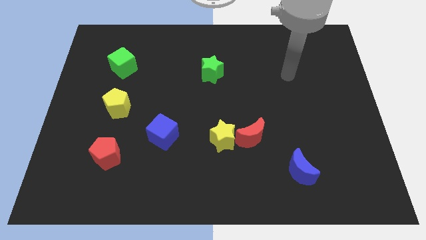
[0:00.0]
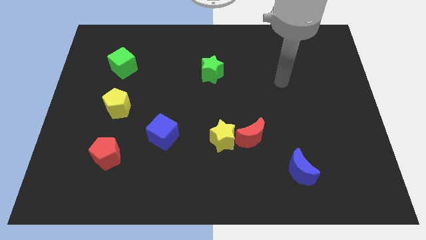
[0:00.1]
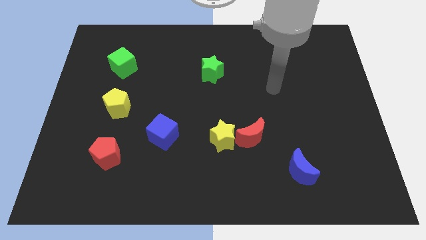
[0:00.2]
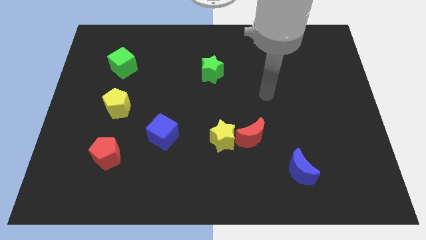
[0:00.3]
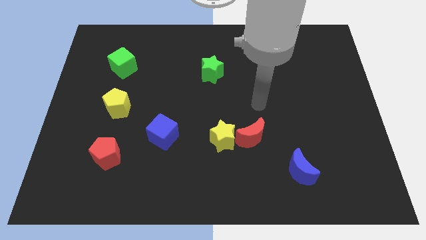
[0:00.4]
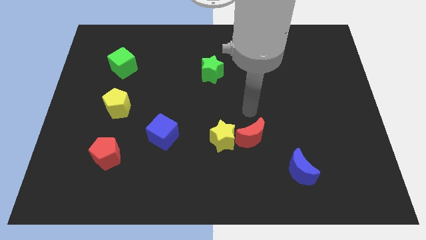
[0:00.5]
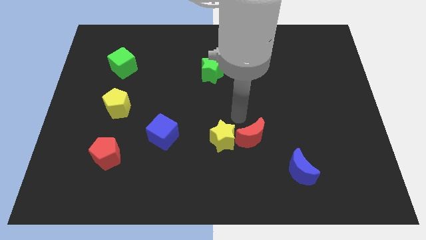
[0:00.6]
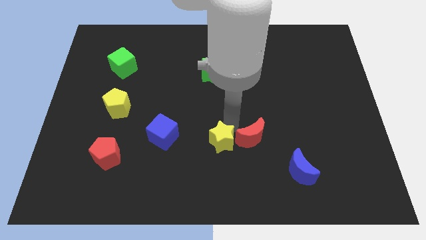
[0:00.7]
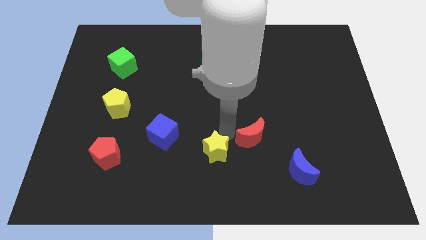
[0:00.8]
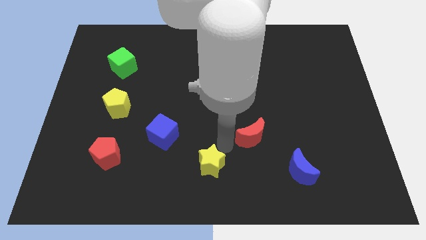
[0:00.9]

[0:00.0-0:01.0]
move the red moon away from the yellow star

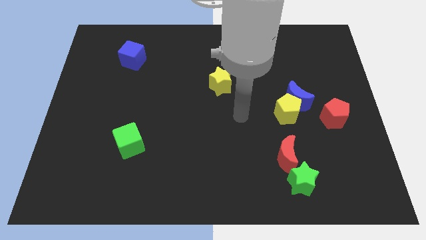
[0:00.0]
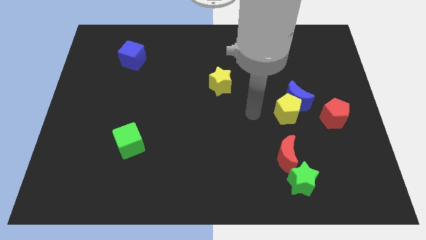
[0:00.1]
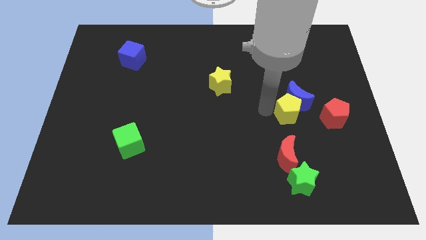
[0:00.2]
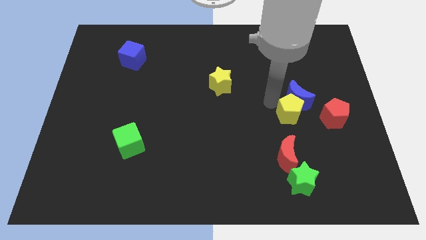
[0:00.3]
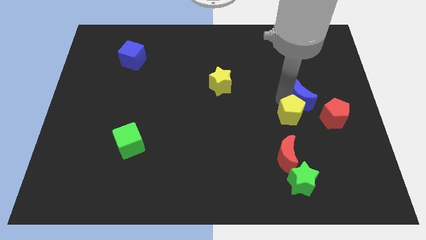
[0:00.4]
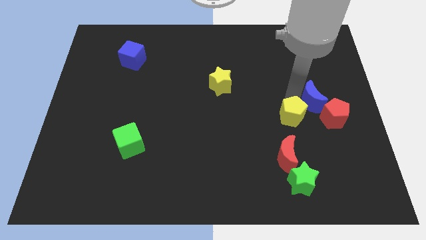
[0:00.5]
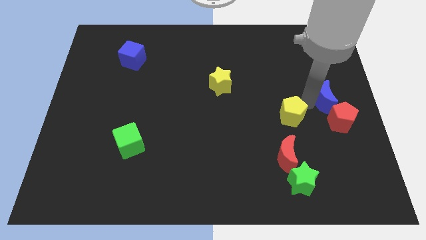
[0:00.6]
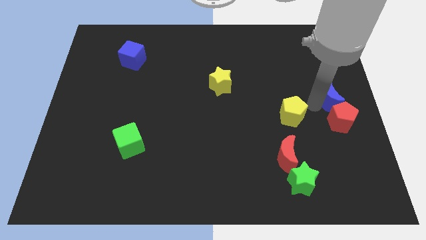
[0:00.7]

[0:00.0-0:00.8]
move the yellow pentagon away from the blue moon

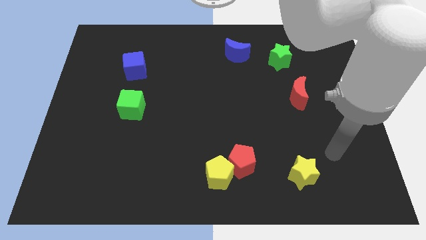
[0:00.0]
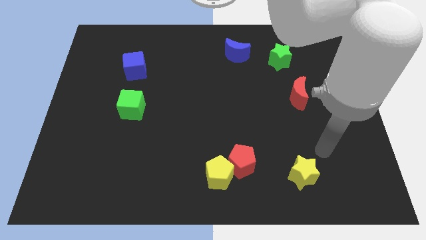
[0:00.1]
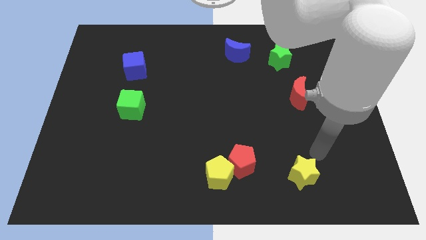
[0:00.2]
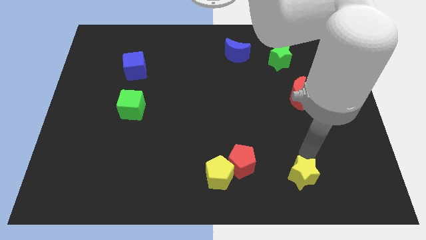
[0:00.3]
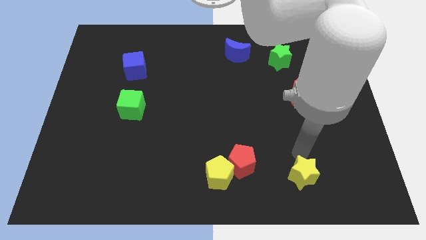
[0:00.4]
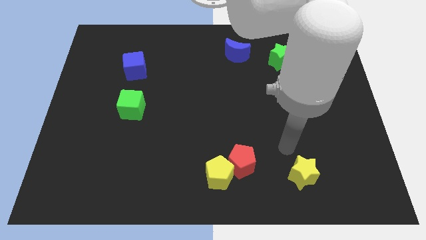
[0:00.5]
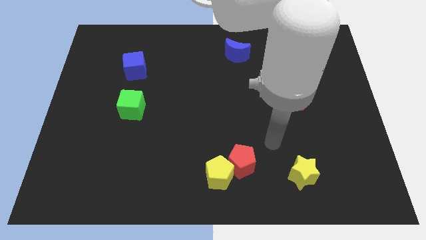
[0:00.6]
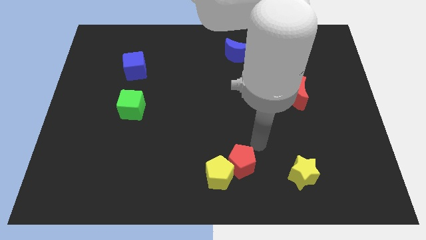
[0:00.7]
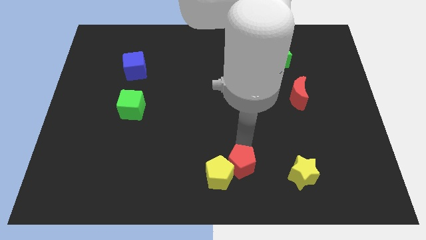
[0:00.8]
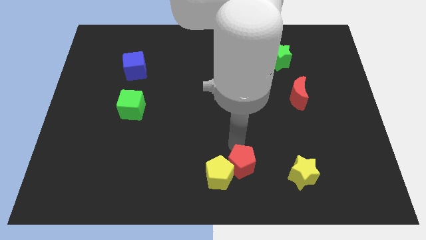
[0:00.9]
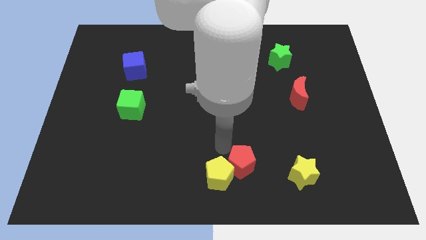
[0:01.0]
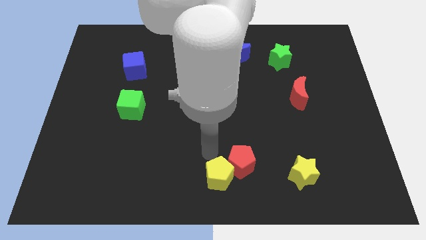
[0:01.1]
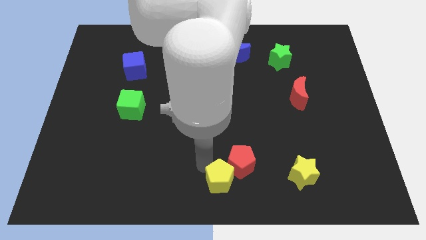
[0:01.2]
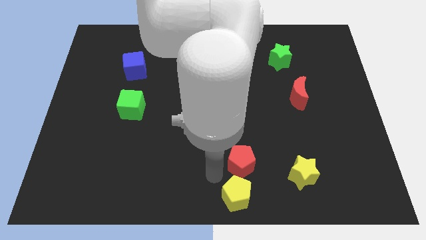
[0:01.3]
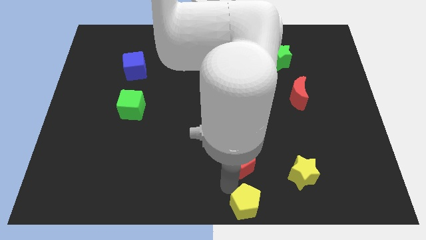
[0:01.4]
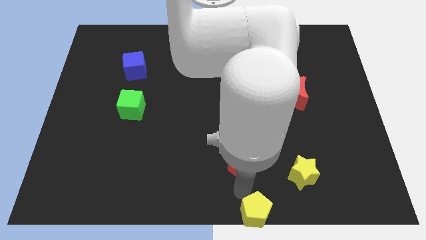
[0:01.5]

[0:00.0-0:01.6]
pull the red pentagon apart from the yellow pentagon

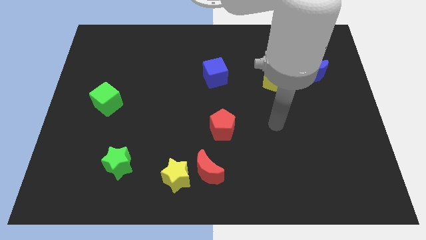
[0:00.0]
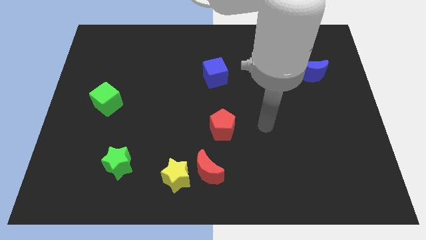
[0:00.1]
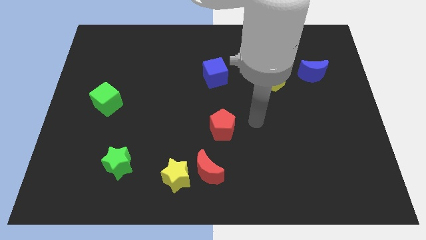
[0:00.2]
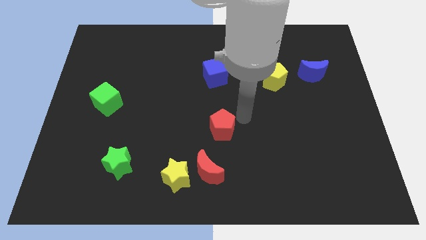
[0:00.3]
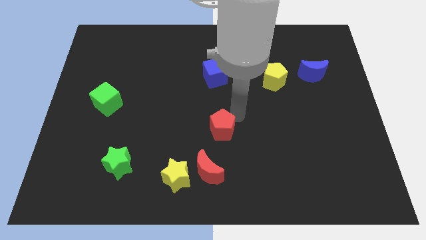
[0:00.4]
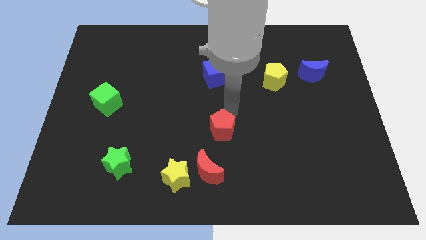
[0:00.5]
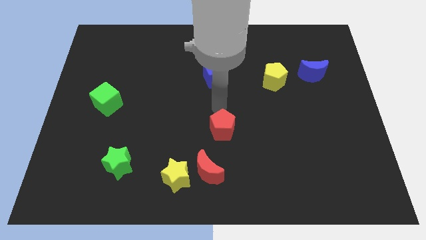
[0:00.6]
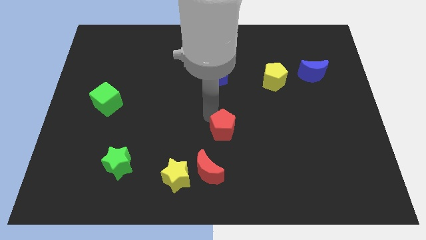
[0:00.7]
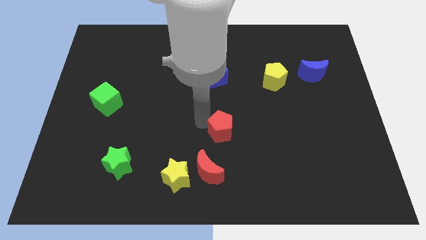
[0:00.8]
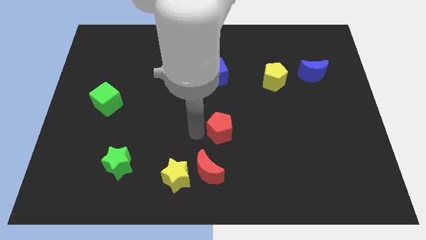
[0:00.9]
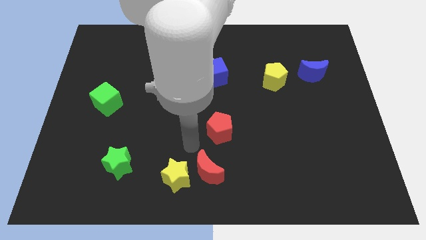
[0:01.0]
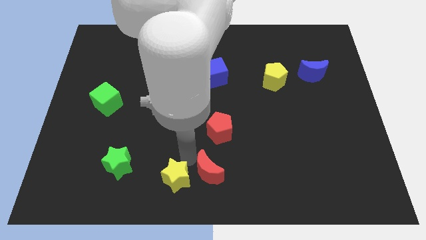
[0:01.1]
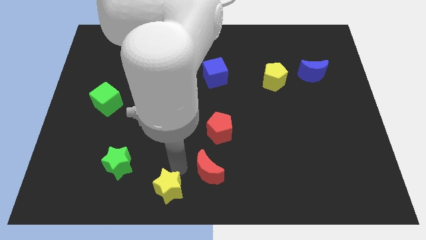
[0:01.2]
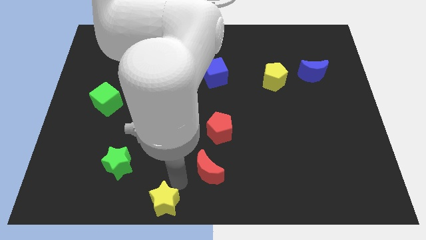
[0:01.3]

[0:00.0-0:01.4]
pull the red moon apart from the yellow star

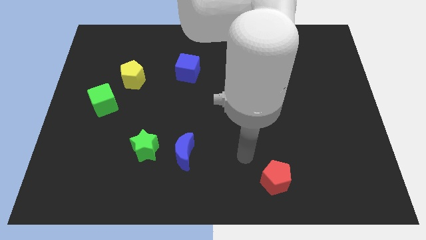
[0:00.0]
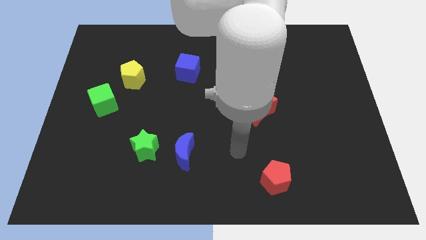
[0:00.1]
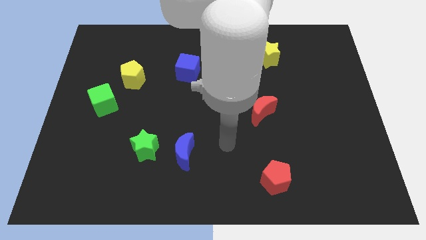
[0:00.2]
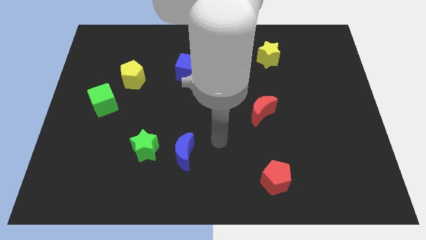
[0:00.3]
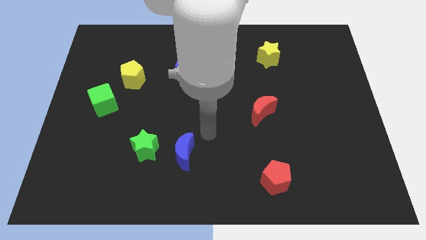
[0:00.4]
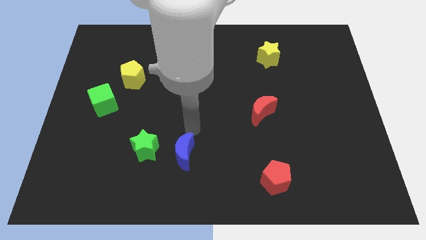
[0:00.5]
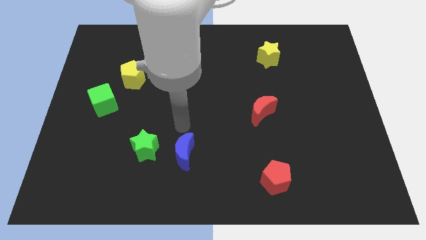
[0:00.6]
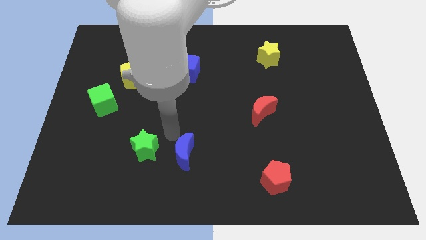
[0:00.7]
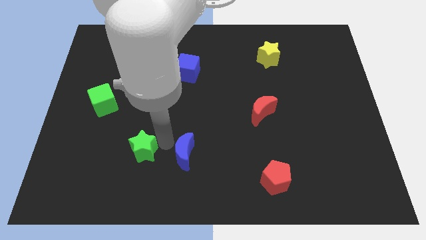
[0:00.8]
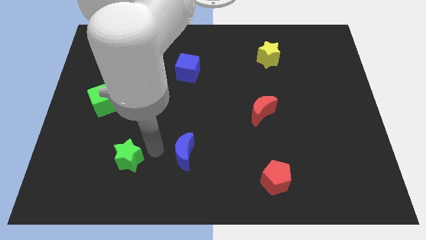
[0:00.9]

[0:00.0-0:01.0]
separate the blue moon from the green star

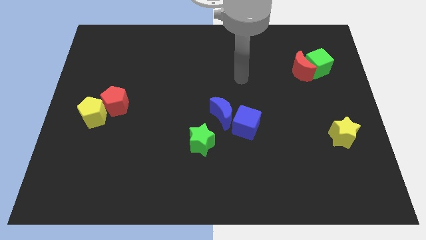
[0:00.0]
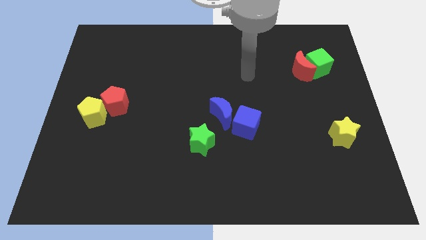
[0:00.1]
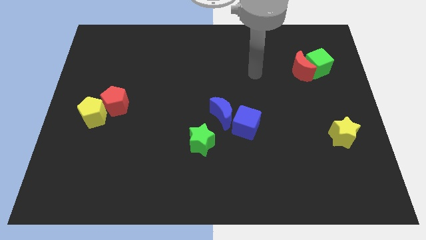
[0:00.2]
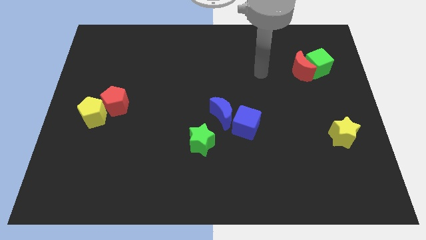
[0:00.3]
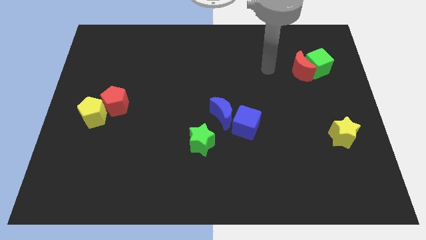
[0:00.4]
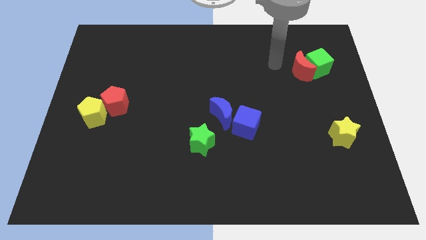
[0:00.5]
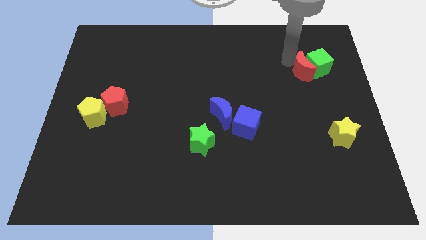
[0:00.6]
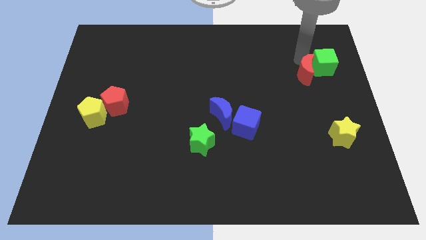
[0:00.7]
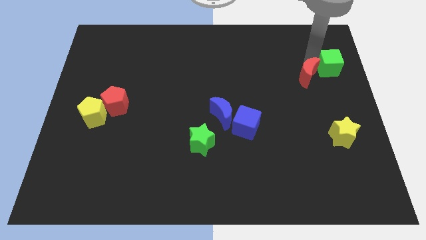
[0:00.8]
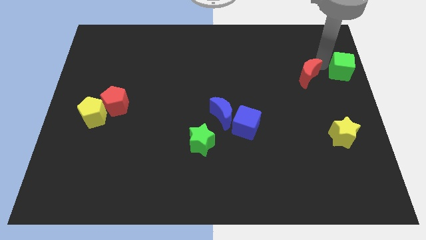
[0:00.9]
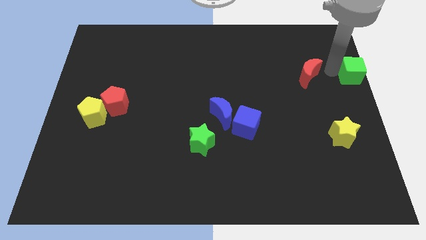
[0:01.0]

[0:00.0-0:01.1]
move the red moon away from the green cube

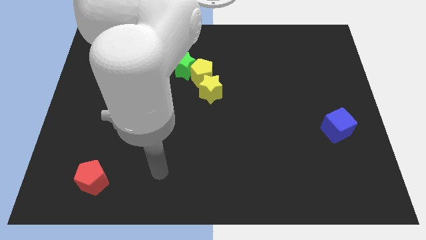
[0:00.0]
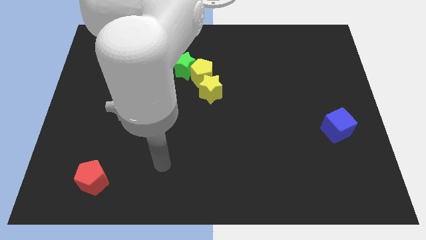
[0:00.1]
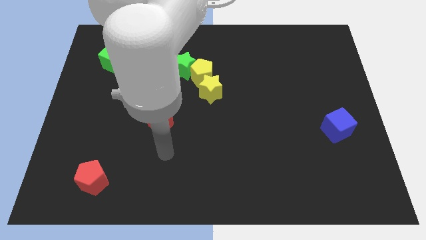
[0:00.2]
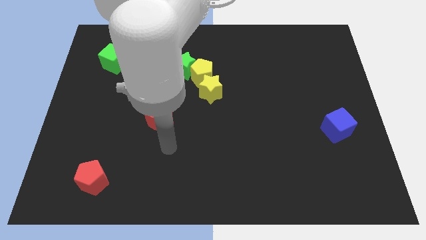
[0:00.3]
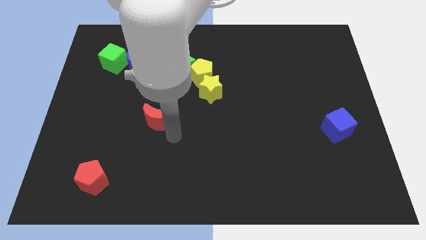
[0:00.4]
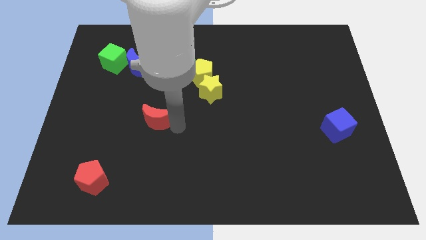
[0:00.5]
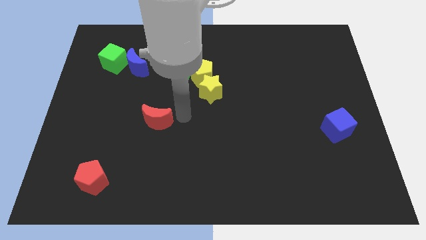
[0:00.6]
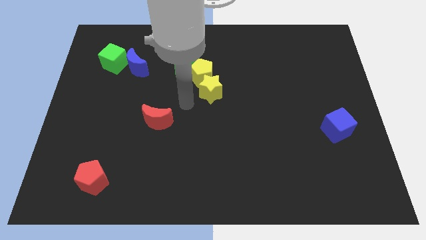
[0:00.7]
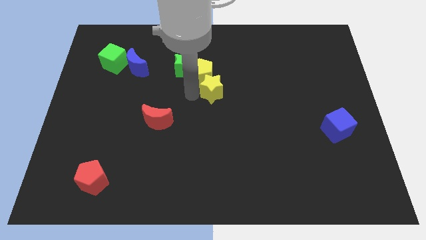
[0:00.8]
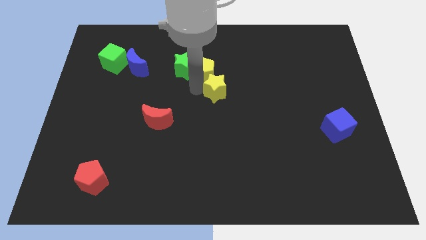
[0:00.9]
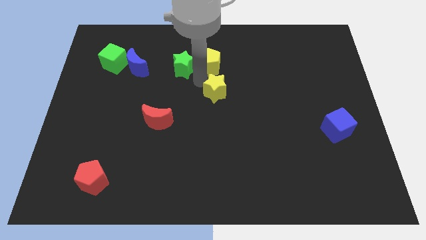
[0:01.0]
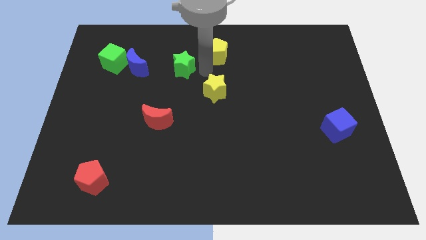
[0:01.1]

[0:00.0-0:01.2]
pull the green star apart from the yellow pentagon

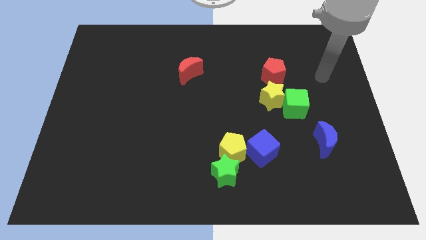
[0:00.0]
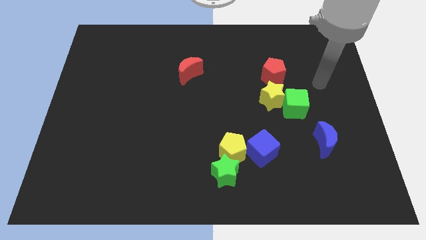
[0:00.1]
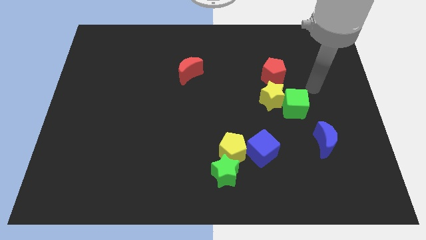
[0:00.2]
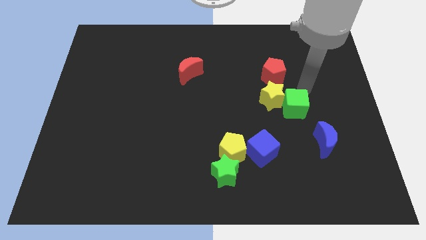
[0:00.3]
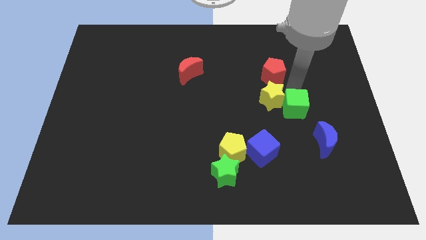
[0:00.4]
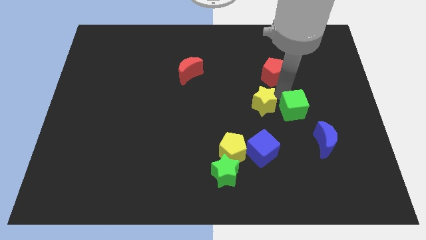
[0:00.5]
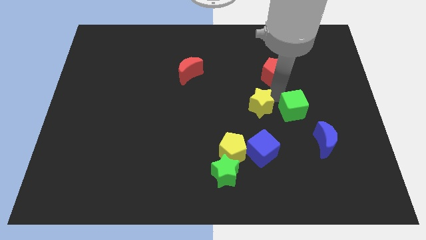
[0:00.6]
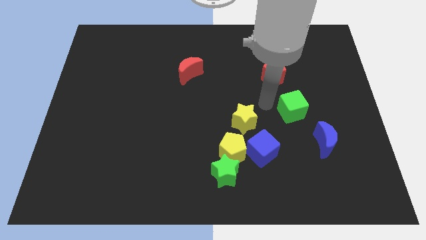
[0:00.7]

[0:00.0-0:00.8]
separate the green cube from the yellow star

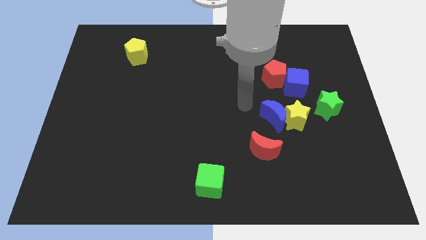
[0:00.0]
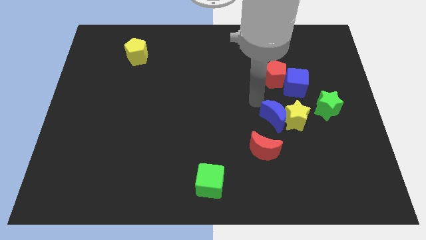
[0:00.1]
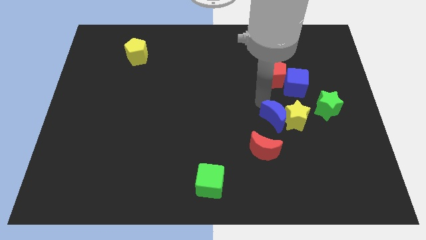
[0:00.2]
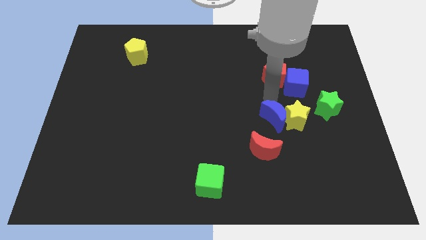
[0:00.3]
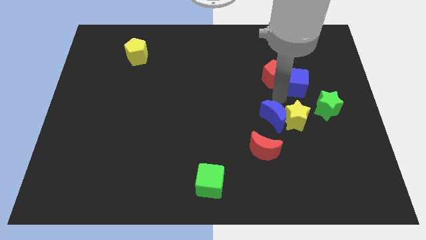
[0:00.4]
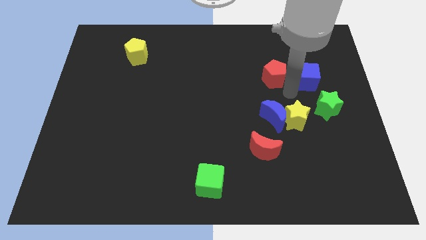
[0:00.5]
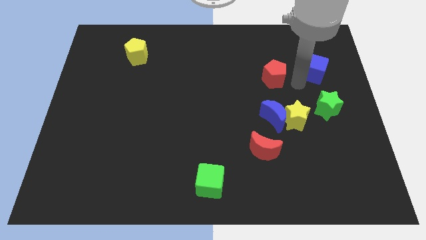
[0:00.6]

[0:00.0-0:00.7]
move the red pentagon away from the blue cube
